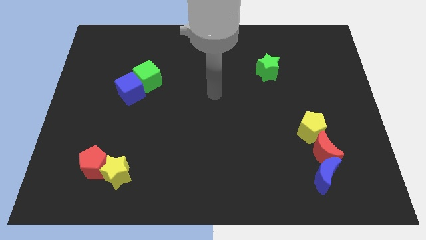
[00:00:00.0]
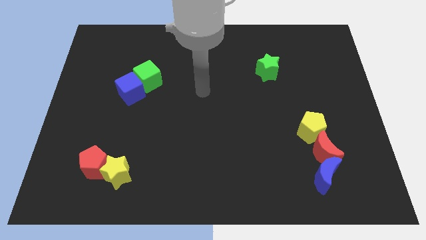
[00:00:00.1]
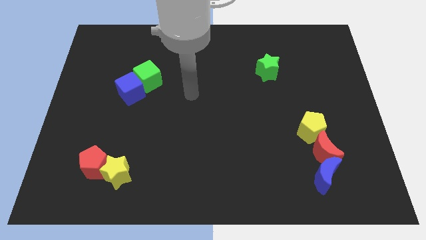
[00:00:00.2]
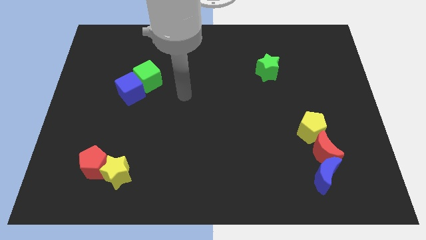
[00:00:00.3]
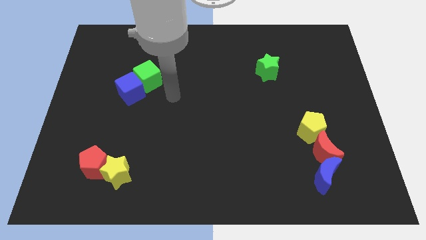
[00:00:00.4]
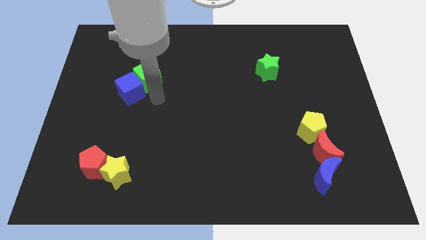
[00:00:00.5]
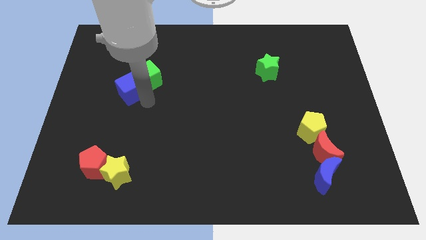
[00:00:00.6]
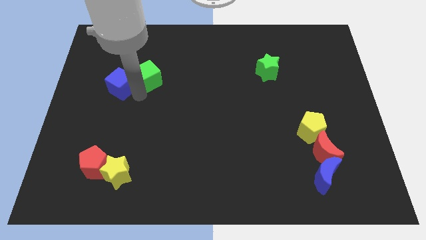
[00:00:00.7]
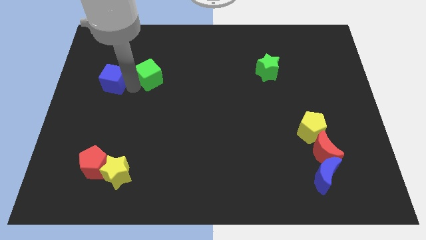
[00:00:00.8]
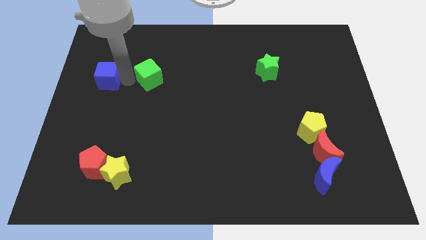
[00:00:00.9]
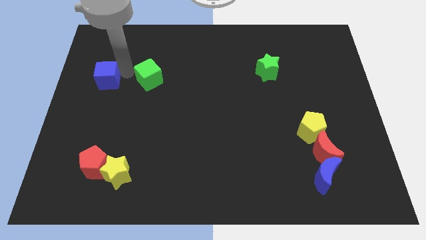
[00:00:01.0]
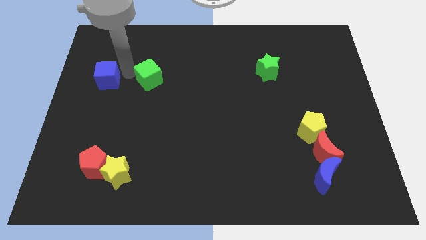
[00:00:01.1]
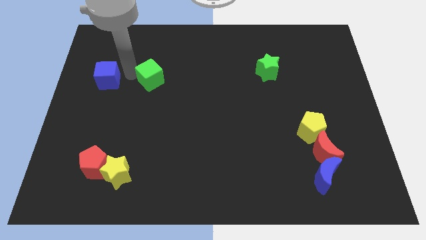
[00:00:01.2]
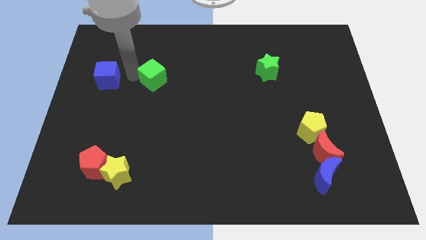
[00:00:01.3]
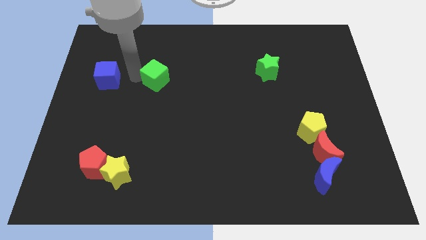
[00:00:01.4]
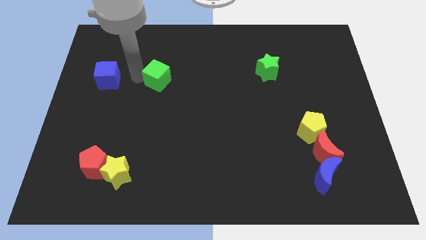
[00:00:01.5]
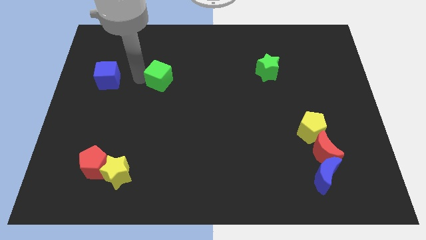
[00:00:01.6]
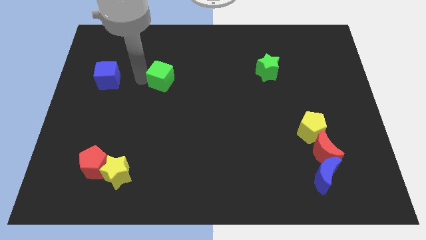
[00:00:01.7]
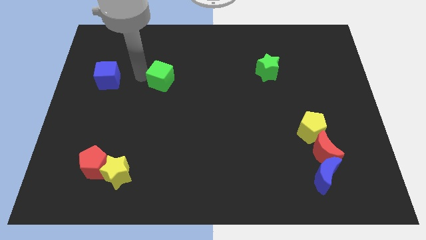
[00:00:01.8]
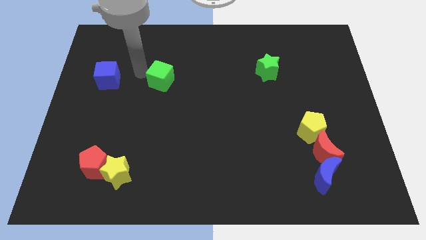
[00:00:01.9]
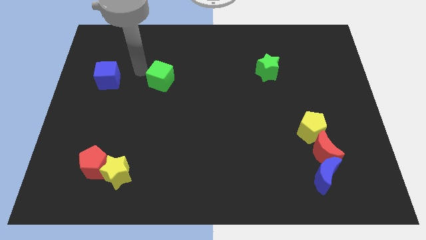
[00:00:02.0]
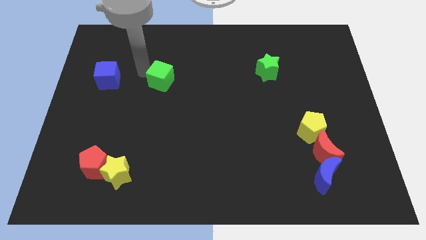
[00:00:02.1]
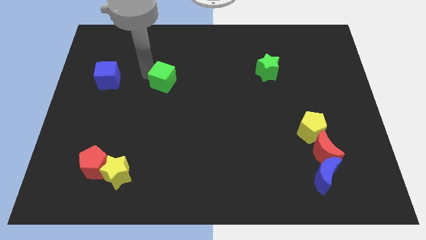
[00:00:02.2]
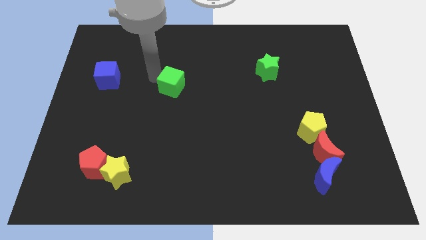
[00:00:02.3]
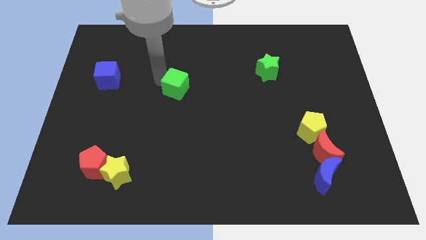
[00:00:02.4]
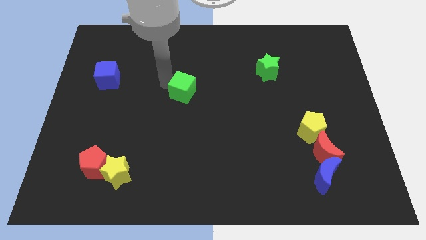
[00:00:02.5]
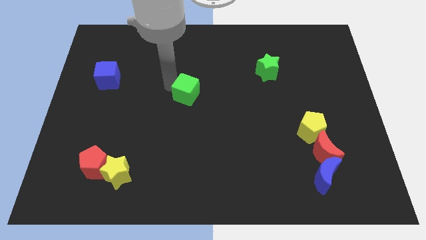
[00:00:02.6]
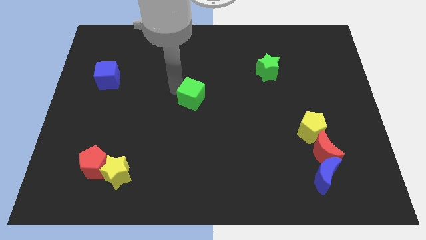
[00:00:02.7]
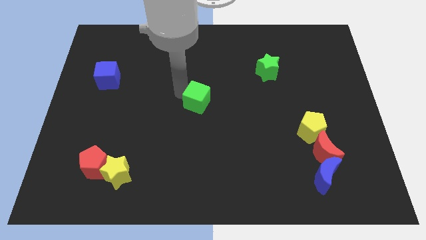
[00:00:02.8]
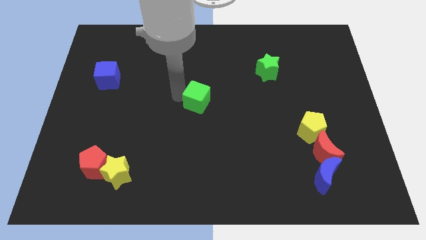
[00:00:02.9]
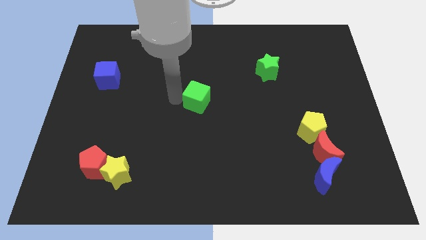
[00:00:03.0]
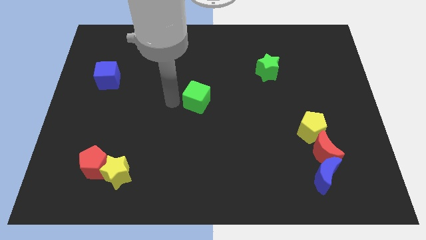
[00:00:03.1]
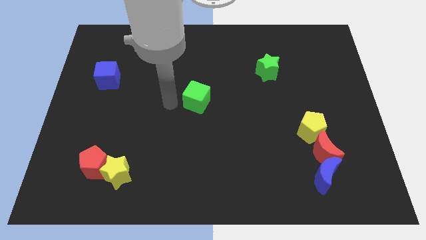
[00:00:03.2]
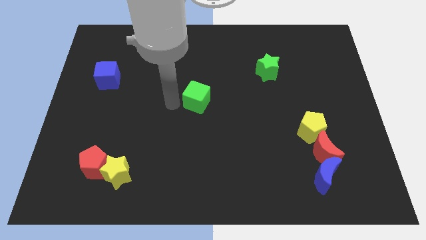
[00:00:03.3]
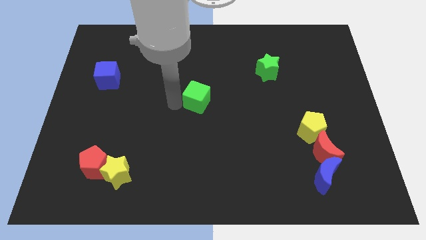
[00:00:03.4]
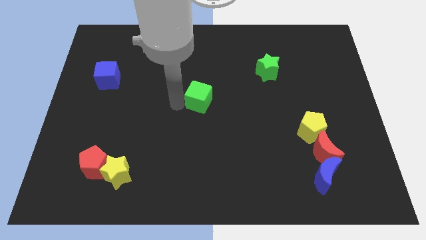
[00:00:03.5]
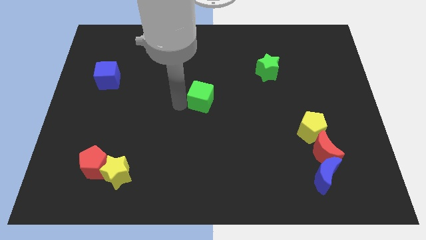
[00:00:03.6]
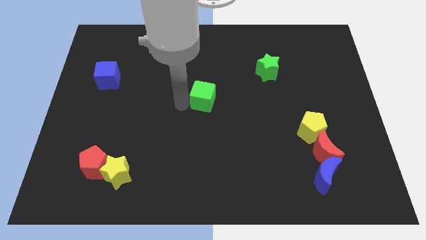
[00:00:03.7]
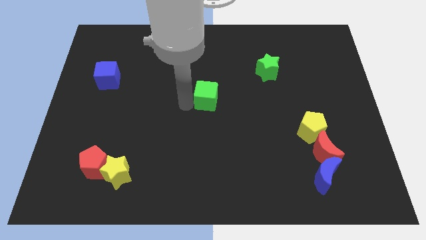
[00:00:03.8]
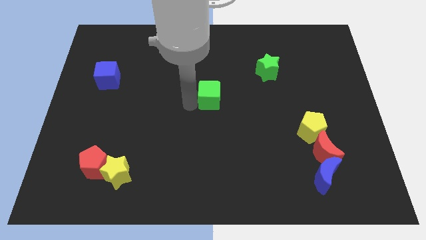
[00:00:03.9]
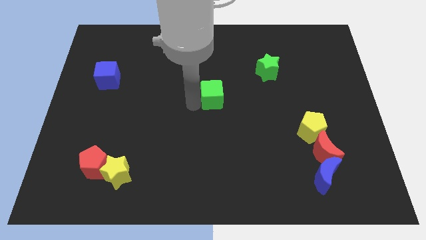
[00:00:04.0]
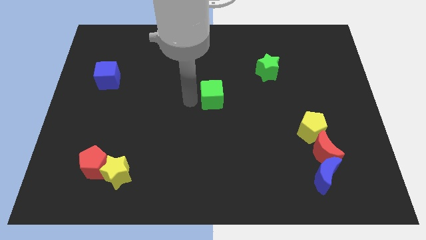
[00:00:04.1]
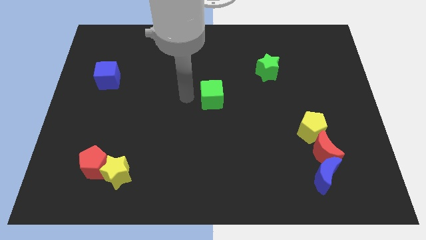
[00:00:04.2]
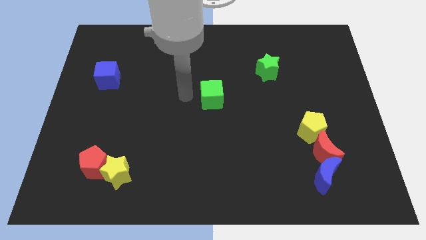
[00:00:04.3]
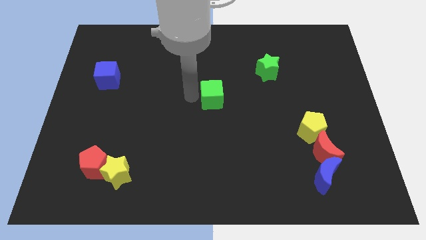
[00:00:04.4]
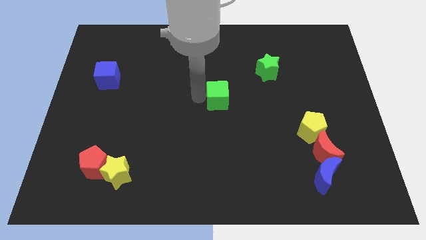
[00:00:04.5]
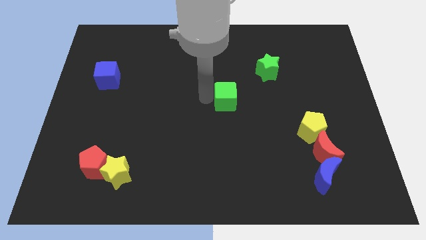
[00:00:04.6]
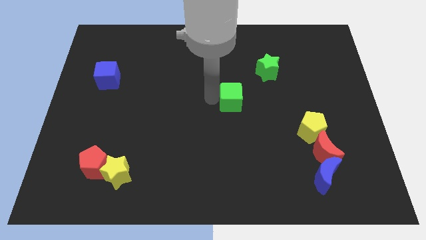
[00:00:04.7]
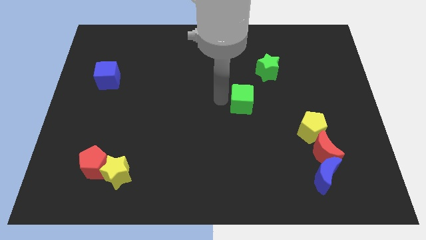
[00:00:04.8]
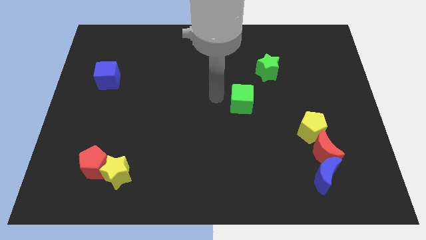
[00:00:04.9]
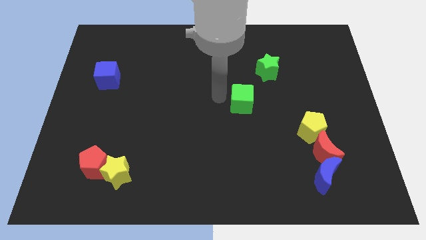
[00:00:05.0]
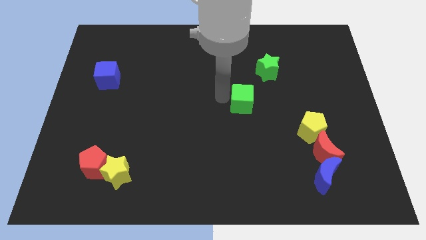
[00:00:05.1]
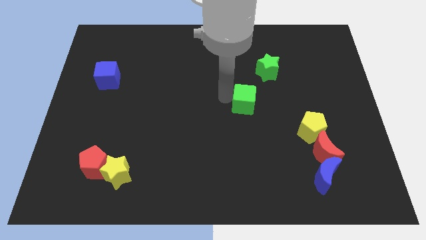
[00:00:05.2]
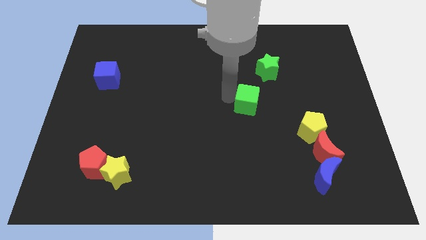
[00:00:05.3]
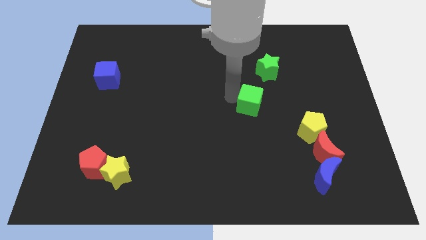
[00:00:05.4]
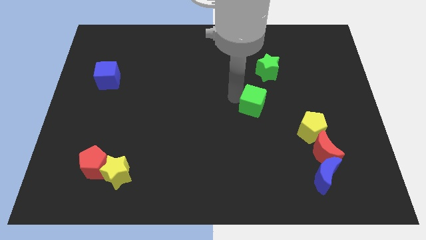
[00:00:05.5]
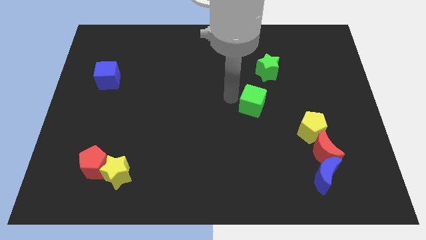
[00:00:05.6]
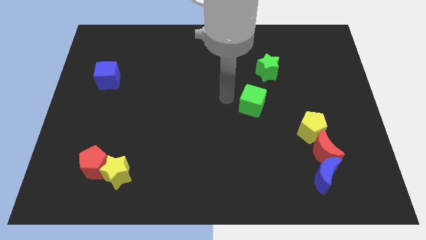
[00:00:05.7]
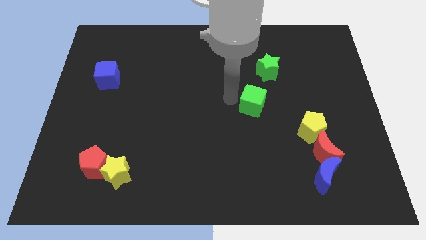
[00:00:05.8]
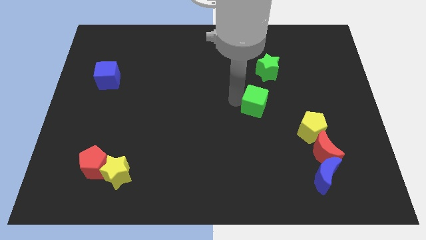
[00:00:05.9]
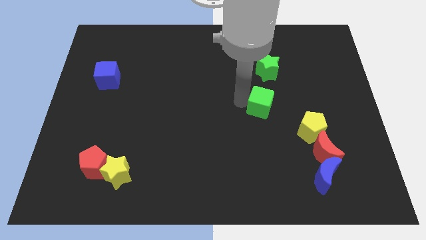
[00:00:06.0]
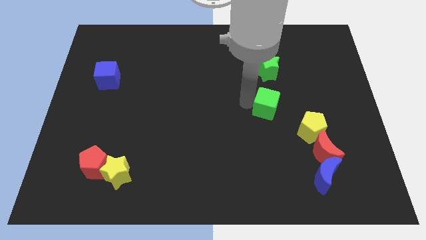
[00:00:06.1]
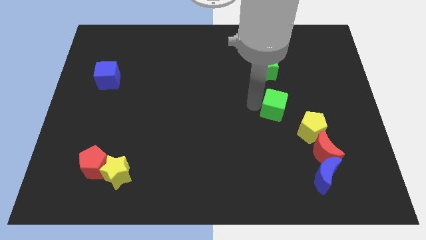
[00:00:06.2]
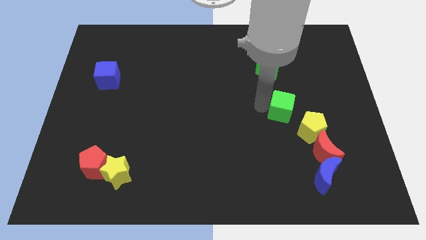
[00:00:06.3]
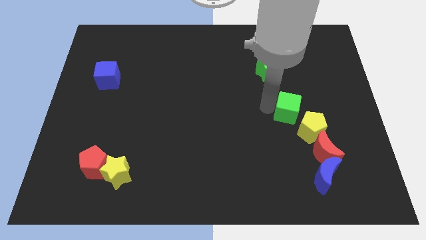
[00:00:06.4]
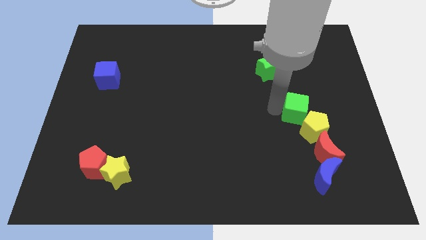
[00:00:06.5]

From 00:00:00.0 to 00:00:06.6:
put the green cube above the red moon

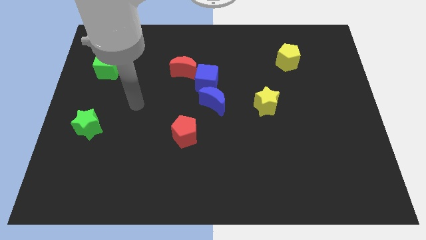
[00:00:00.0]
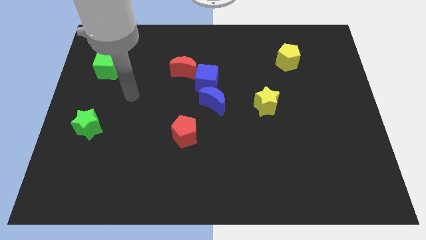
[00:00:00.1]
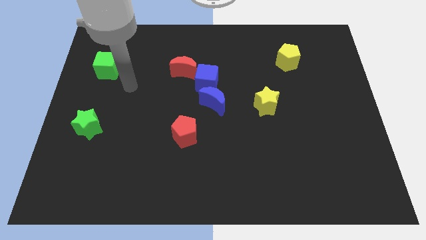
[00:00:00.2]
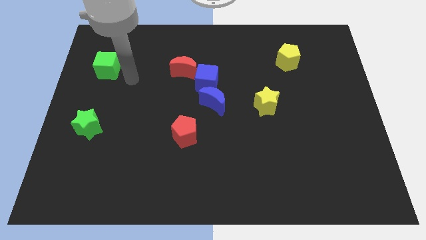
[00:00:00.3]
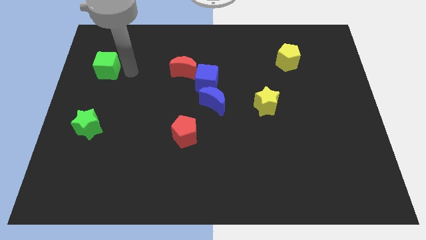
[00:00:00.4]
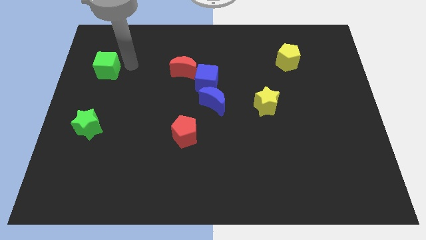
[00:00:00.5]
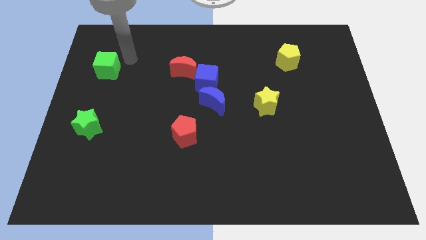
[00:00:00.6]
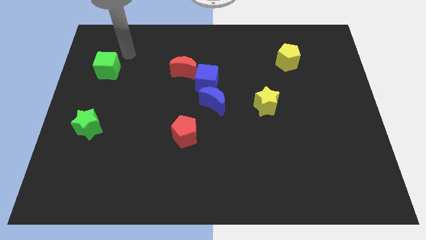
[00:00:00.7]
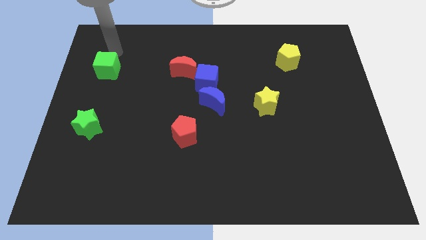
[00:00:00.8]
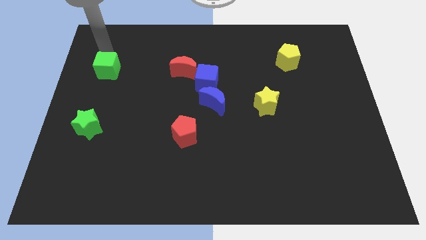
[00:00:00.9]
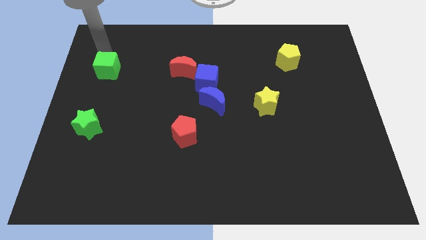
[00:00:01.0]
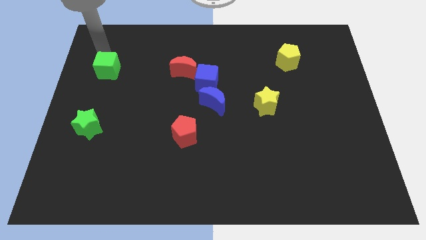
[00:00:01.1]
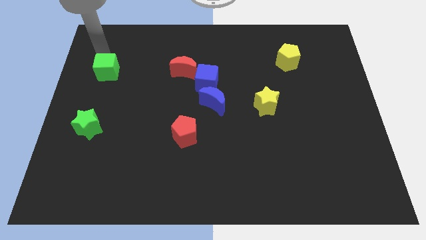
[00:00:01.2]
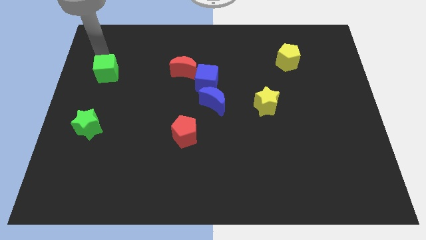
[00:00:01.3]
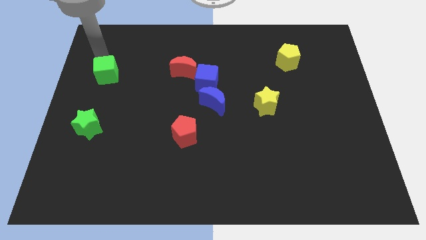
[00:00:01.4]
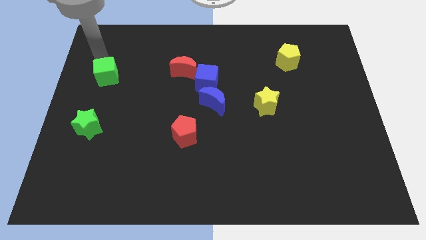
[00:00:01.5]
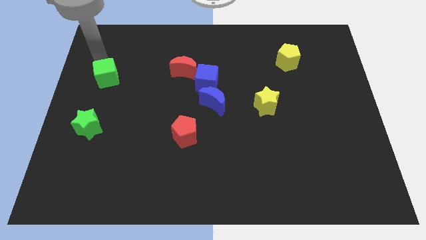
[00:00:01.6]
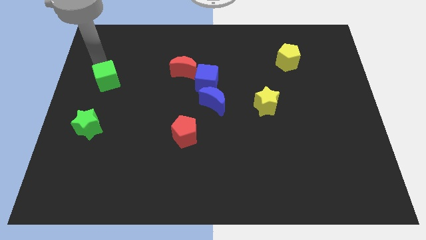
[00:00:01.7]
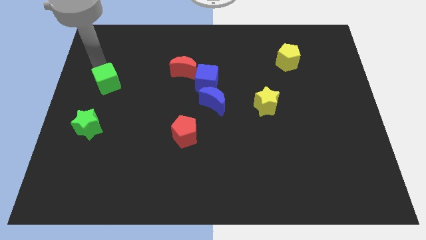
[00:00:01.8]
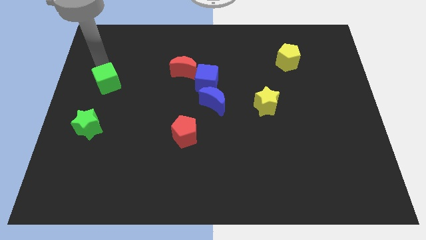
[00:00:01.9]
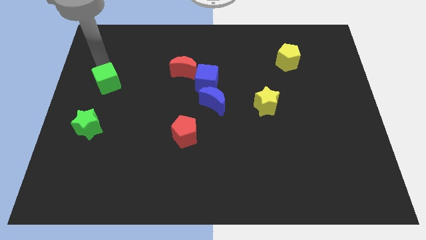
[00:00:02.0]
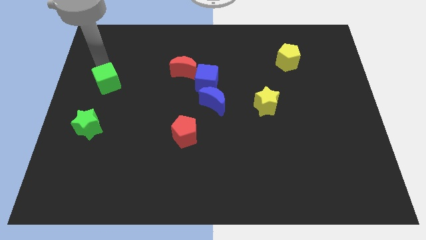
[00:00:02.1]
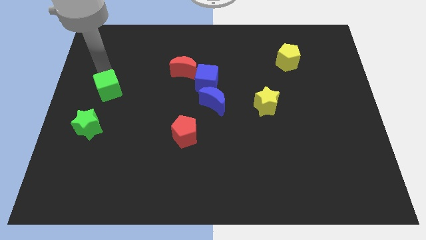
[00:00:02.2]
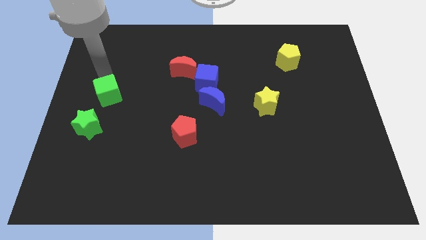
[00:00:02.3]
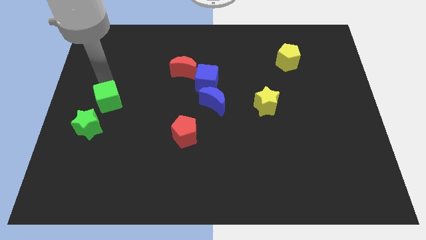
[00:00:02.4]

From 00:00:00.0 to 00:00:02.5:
move the green cube to the top right side of the green star
